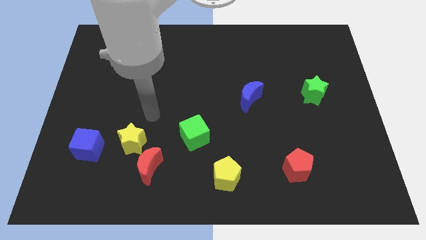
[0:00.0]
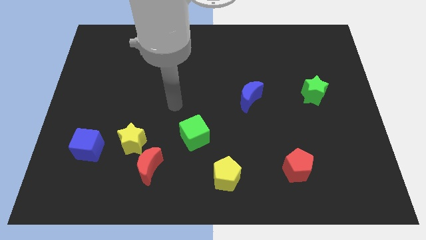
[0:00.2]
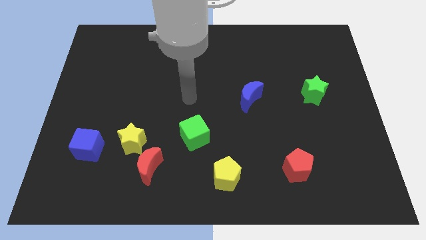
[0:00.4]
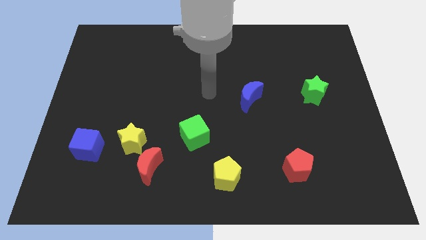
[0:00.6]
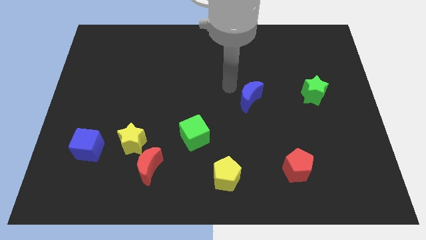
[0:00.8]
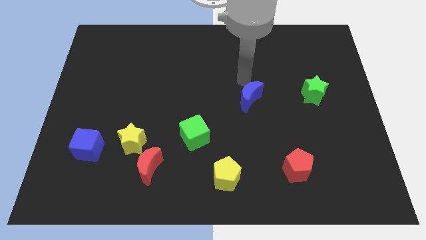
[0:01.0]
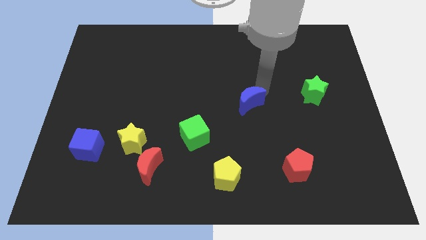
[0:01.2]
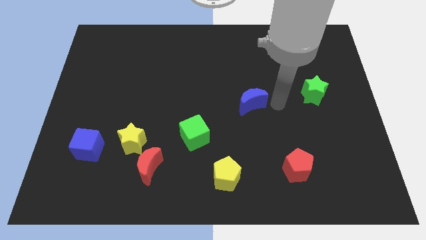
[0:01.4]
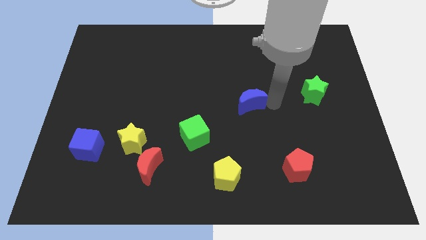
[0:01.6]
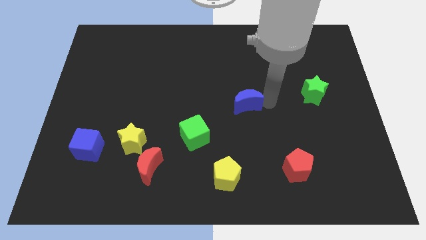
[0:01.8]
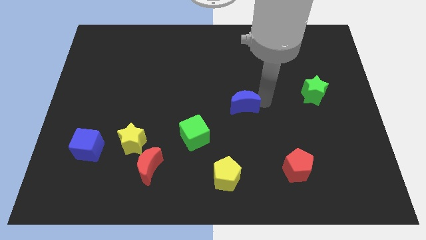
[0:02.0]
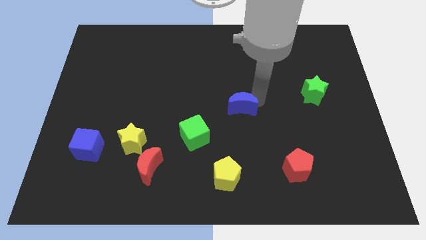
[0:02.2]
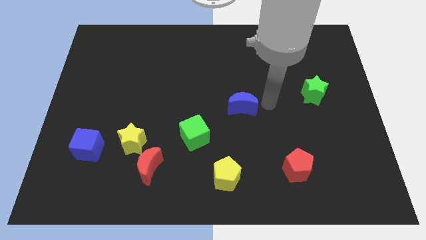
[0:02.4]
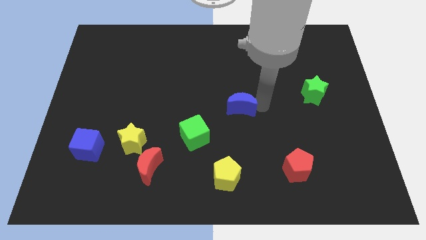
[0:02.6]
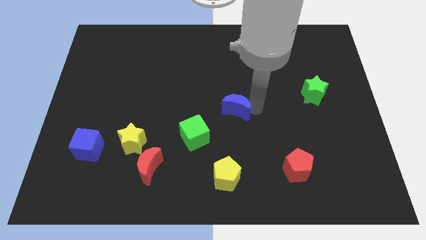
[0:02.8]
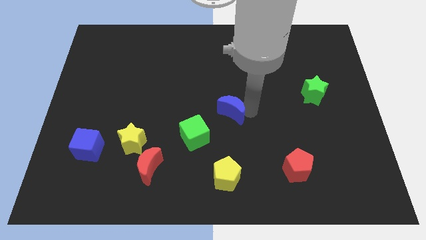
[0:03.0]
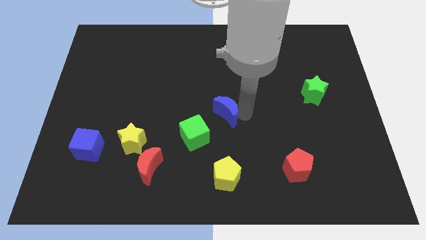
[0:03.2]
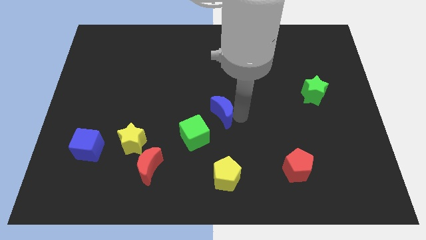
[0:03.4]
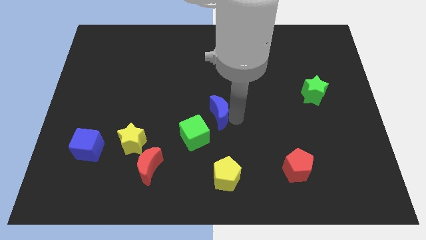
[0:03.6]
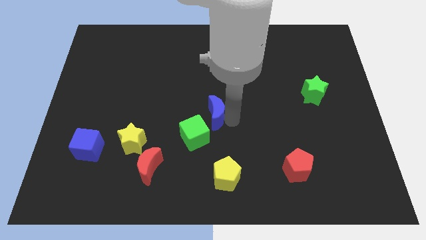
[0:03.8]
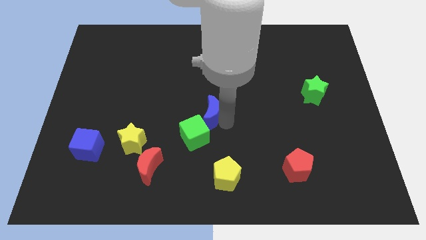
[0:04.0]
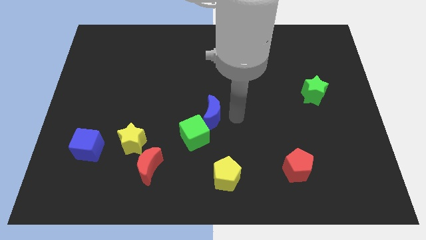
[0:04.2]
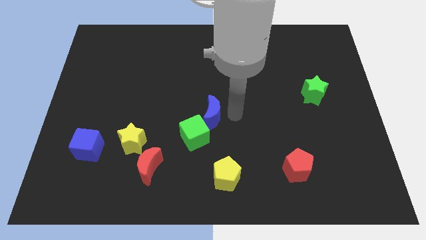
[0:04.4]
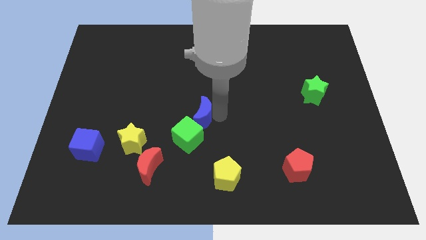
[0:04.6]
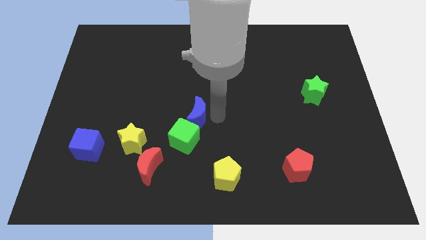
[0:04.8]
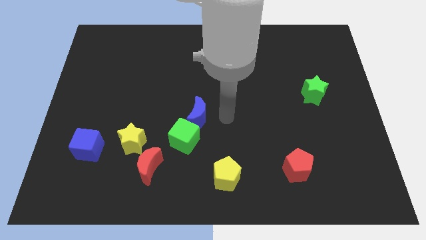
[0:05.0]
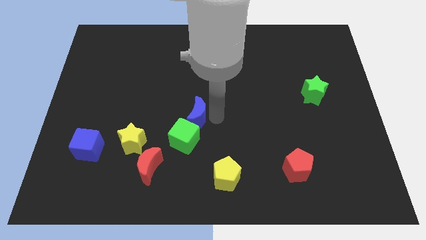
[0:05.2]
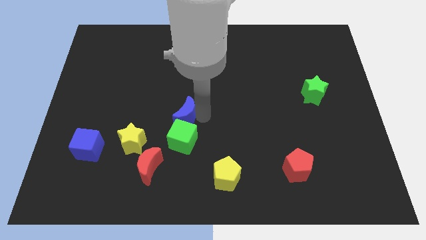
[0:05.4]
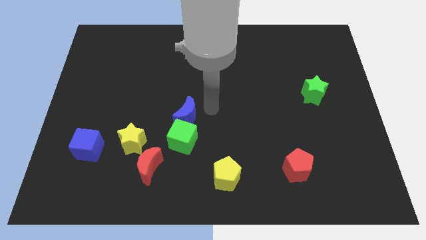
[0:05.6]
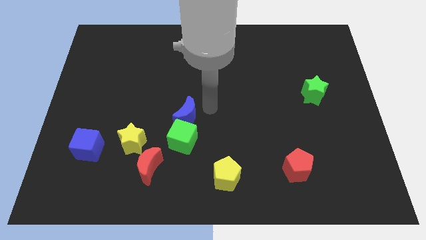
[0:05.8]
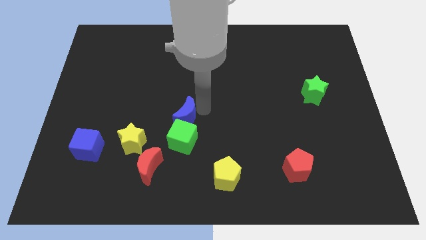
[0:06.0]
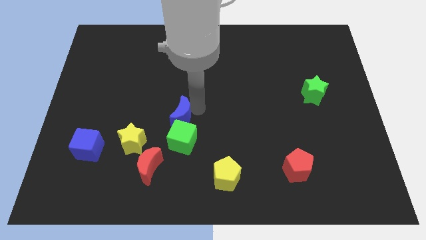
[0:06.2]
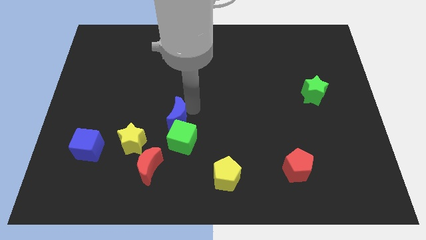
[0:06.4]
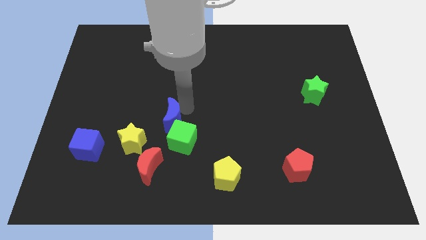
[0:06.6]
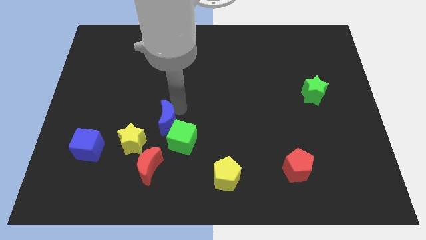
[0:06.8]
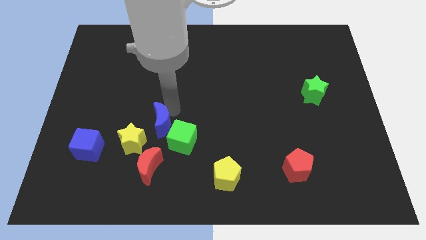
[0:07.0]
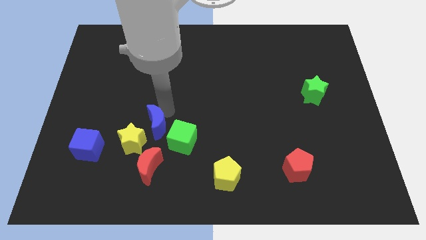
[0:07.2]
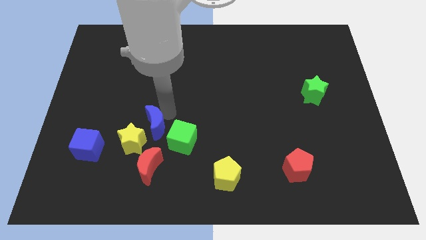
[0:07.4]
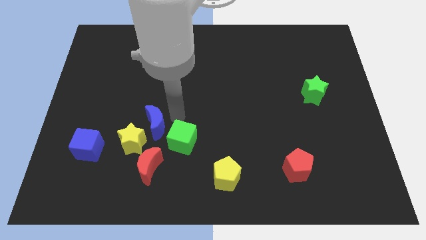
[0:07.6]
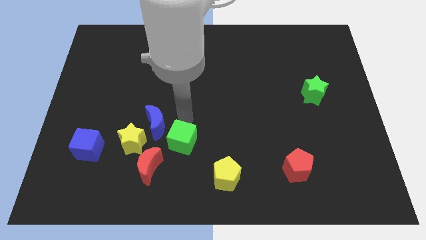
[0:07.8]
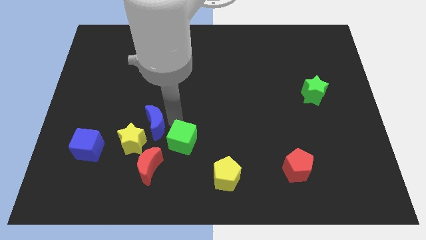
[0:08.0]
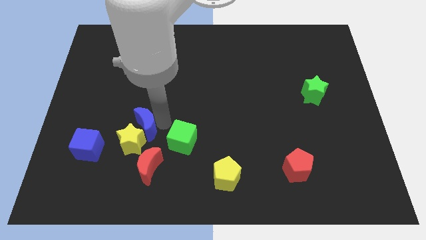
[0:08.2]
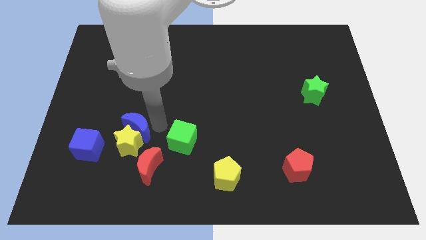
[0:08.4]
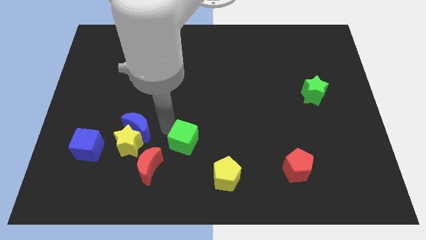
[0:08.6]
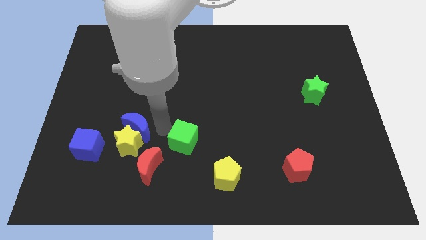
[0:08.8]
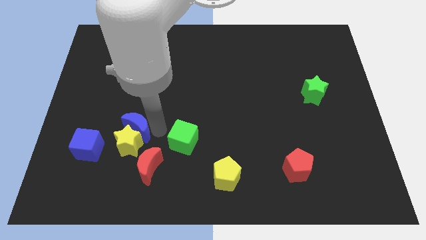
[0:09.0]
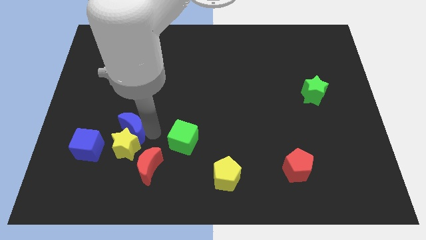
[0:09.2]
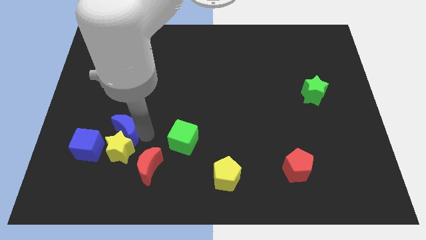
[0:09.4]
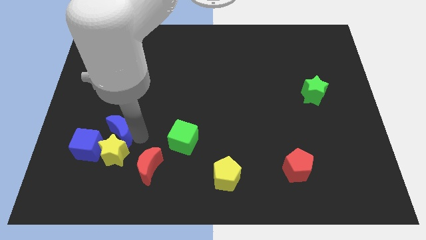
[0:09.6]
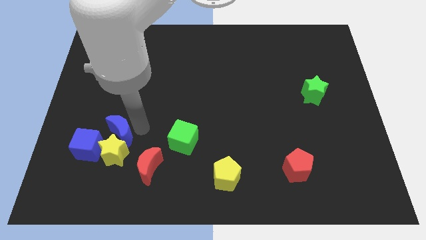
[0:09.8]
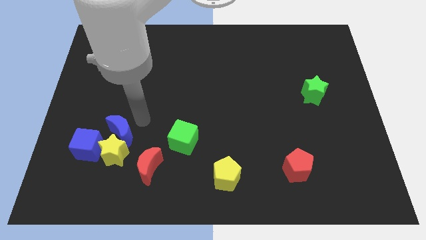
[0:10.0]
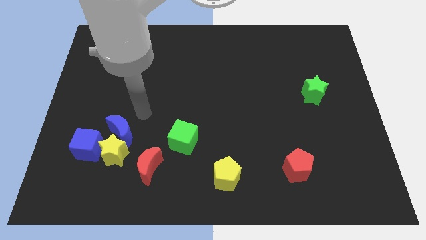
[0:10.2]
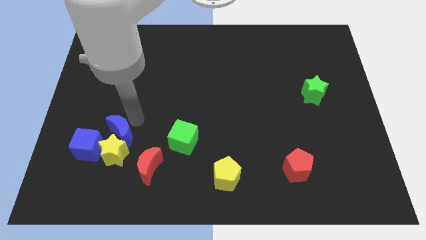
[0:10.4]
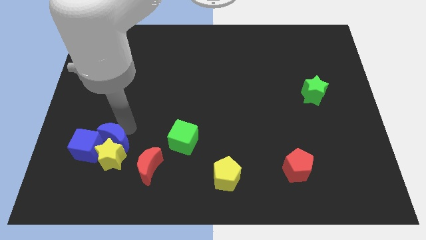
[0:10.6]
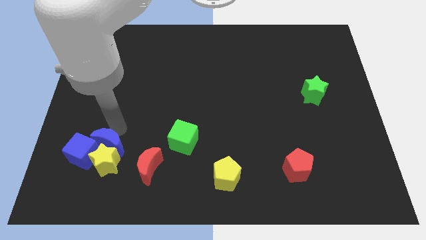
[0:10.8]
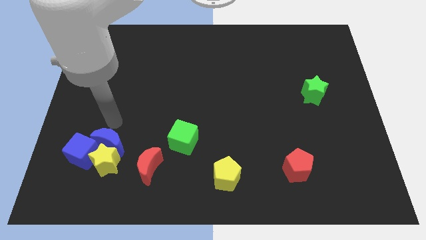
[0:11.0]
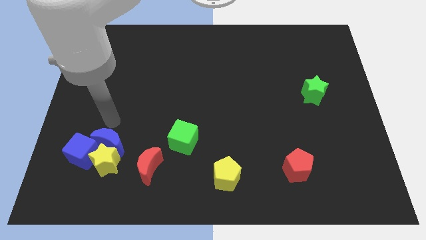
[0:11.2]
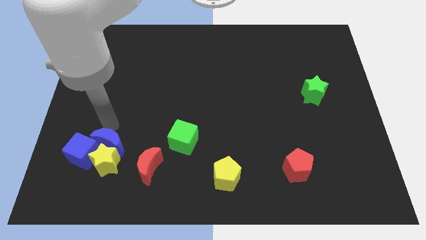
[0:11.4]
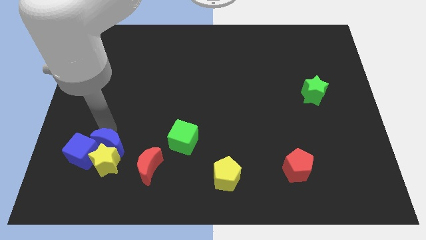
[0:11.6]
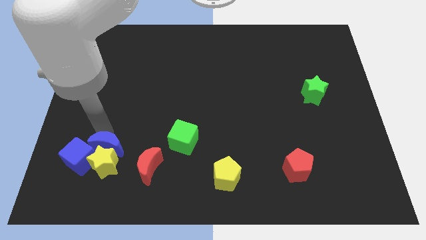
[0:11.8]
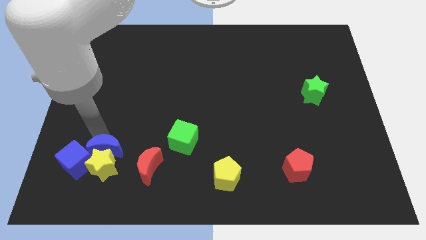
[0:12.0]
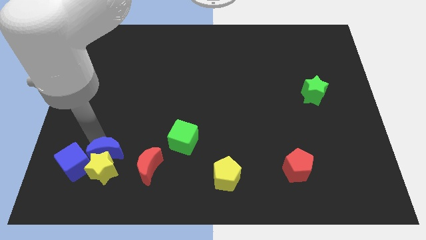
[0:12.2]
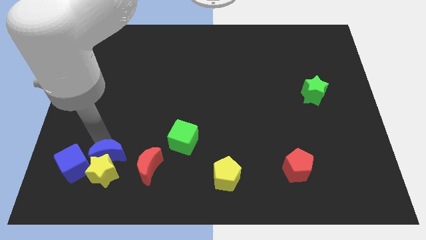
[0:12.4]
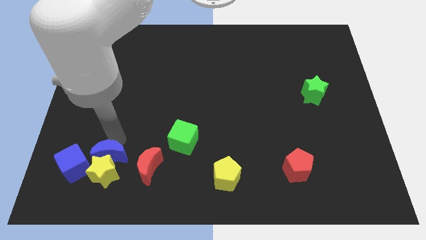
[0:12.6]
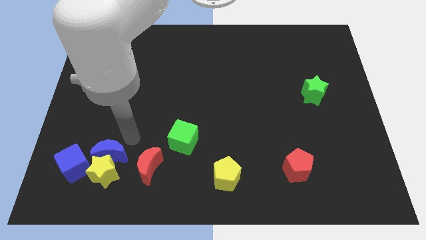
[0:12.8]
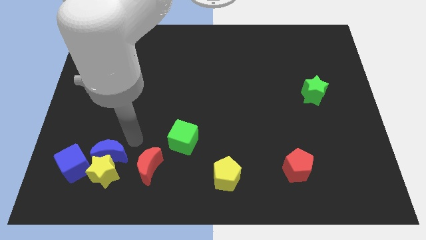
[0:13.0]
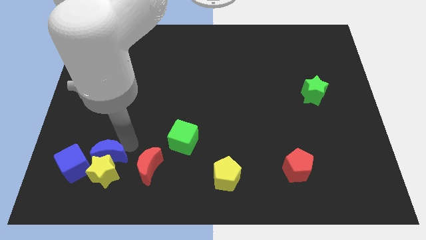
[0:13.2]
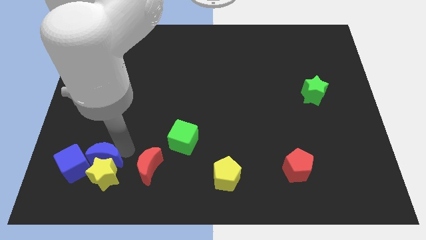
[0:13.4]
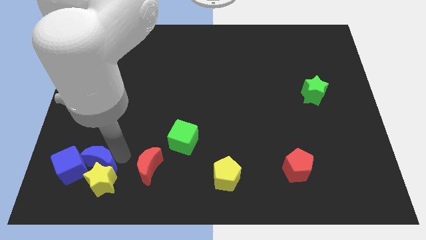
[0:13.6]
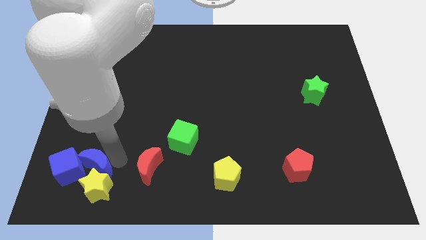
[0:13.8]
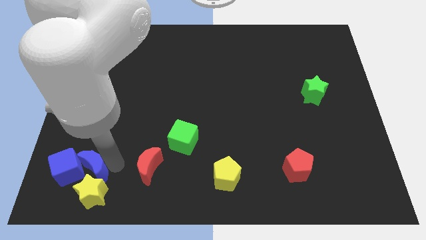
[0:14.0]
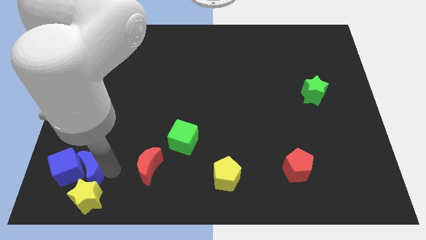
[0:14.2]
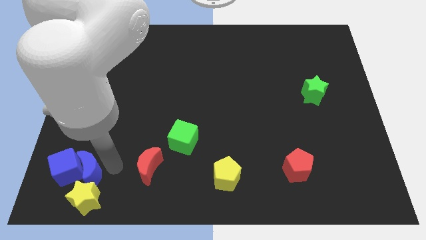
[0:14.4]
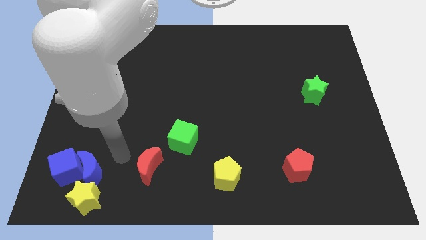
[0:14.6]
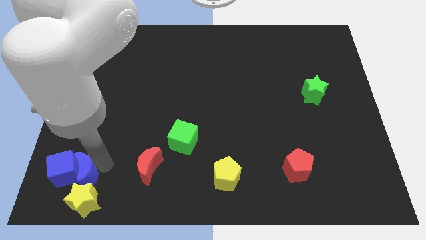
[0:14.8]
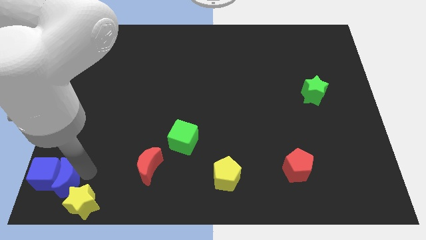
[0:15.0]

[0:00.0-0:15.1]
slide the blue moon to the lower left corner

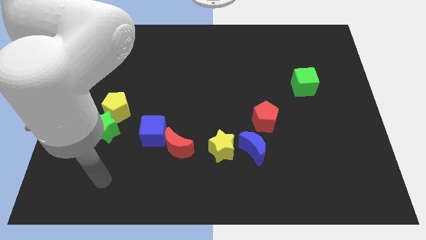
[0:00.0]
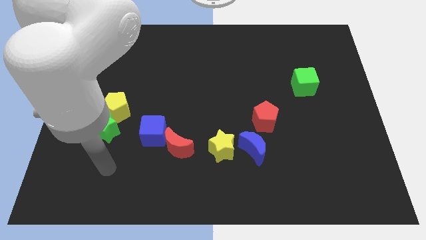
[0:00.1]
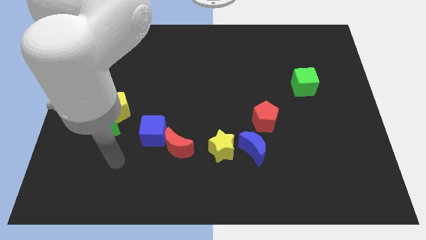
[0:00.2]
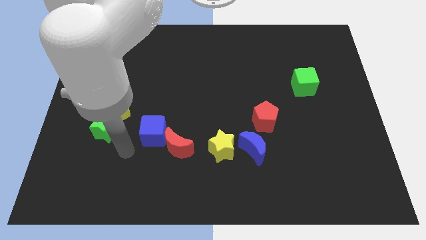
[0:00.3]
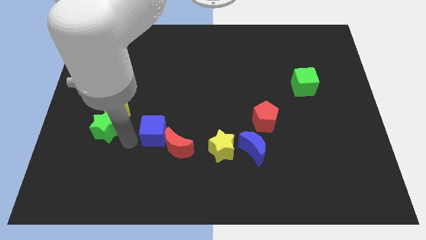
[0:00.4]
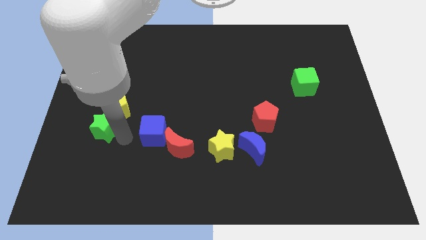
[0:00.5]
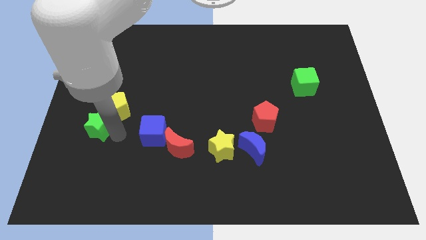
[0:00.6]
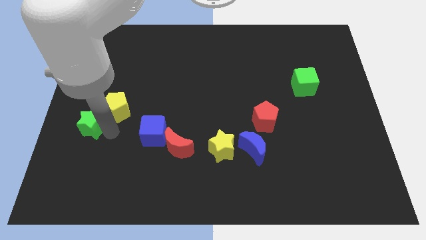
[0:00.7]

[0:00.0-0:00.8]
put the green star to the left side of the board
